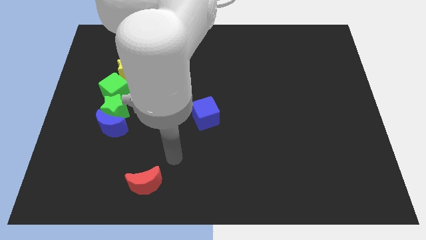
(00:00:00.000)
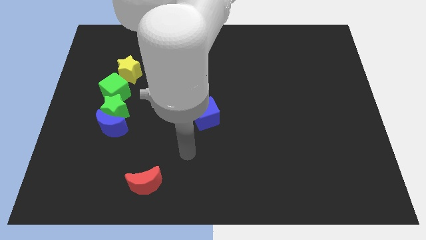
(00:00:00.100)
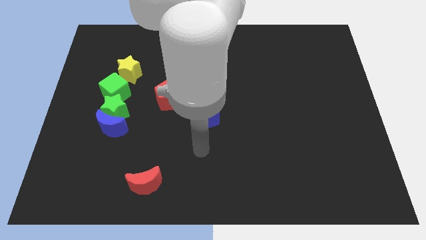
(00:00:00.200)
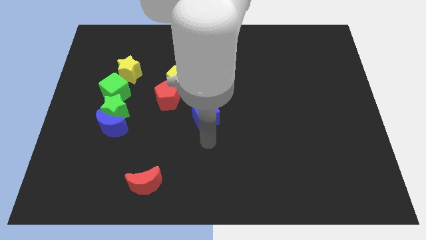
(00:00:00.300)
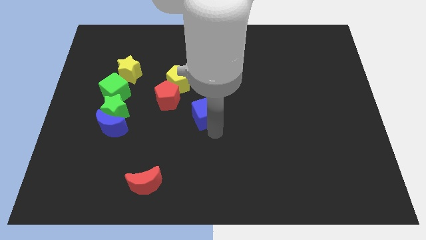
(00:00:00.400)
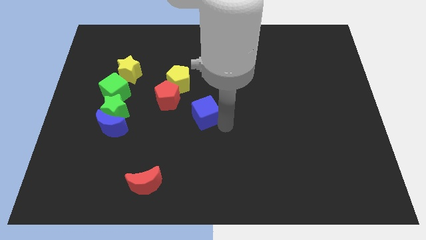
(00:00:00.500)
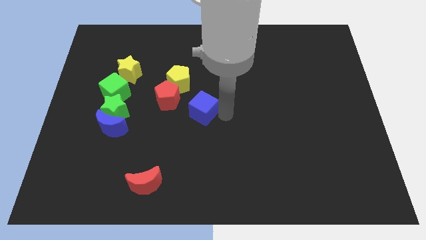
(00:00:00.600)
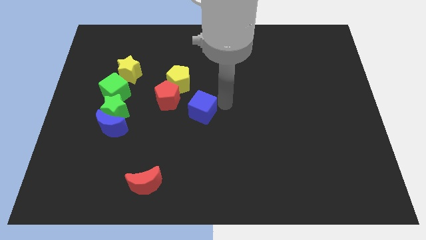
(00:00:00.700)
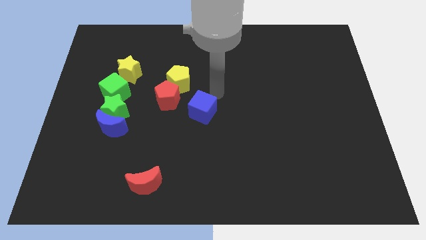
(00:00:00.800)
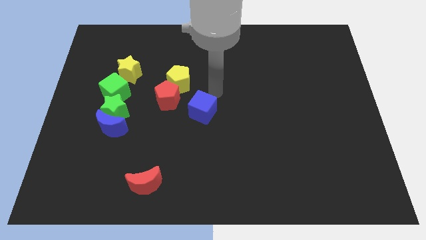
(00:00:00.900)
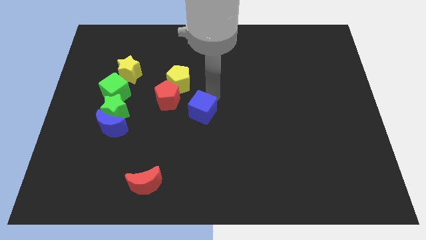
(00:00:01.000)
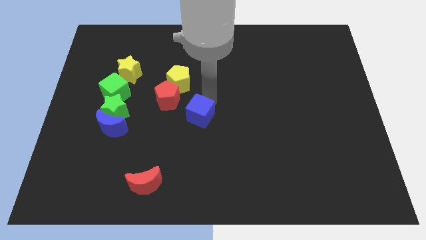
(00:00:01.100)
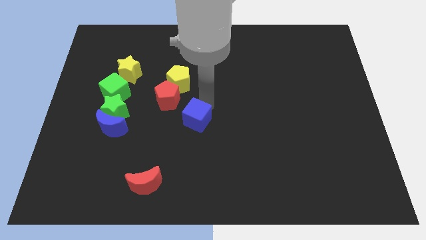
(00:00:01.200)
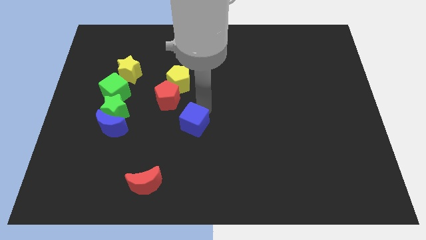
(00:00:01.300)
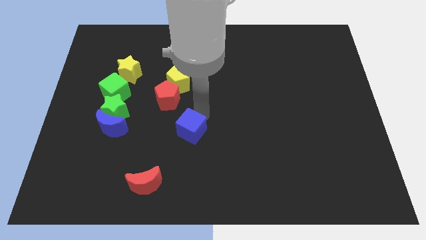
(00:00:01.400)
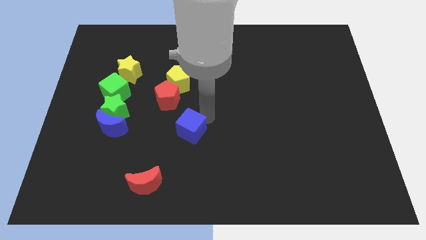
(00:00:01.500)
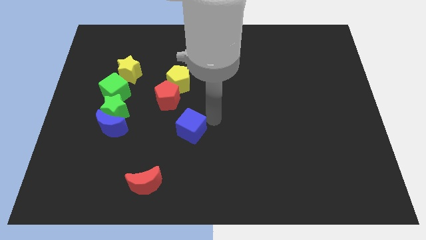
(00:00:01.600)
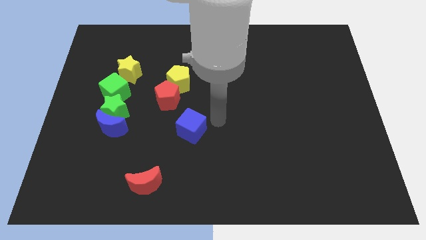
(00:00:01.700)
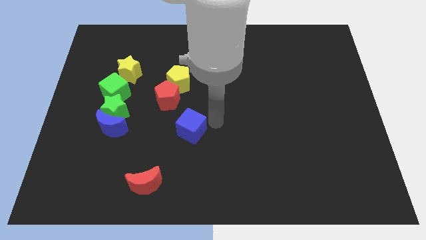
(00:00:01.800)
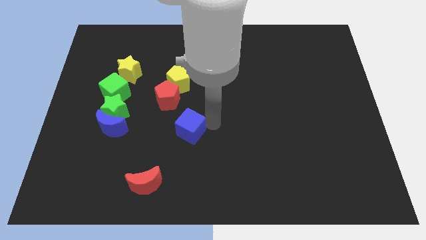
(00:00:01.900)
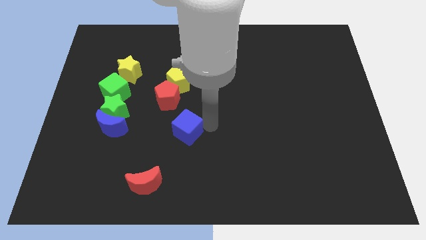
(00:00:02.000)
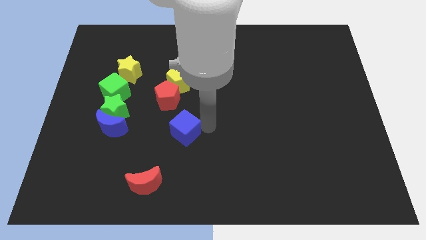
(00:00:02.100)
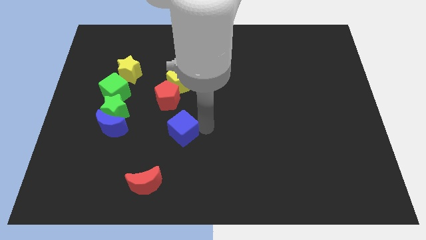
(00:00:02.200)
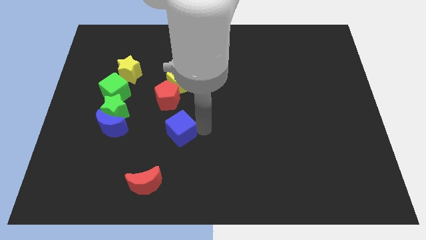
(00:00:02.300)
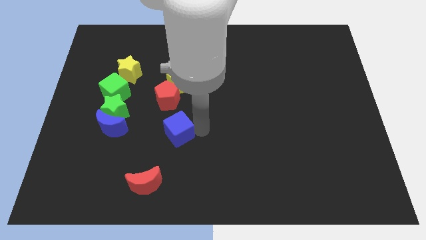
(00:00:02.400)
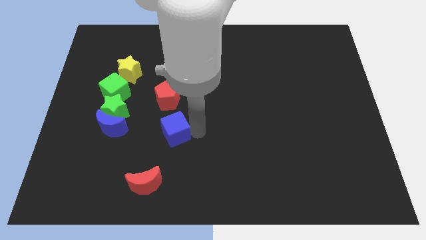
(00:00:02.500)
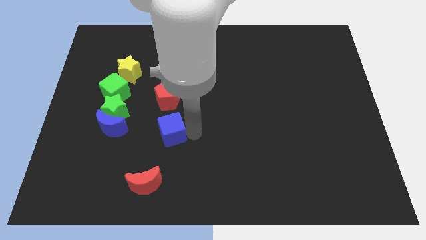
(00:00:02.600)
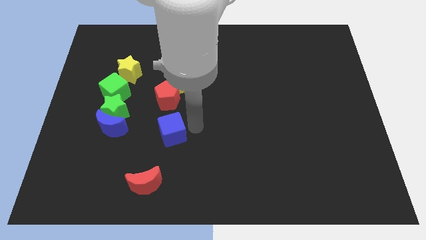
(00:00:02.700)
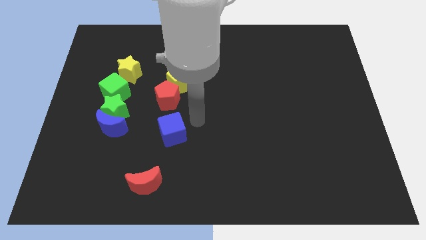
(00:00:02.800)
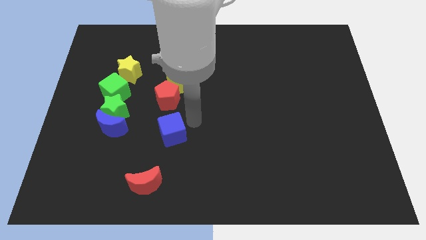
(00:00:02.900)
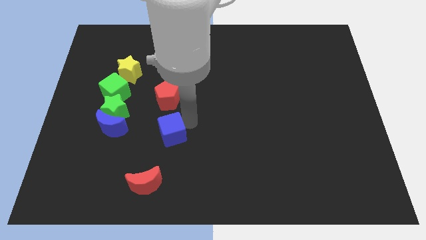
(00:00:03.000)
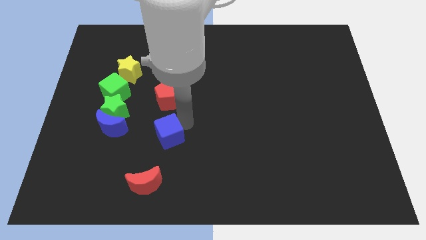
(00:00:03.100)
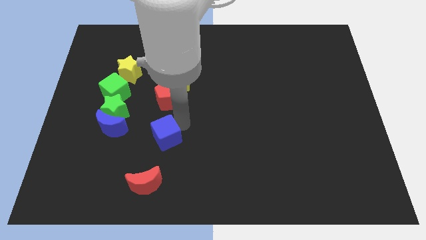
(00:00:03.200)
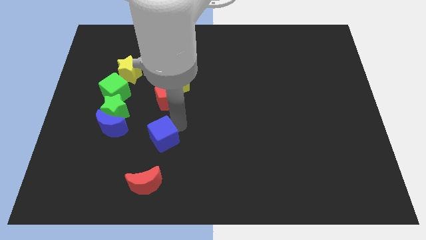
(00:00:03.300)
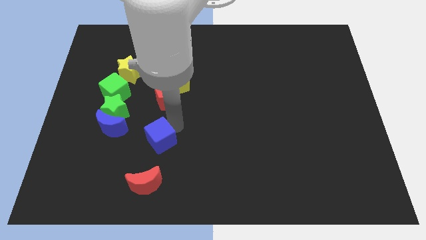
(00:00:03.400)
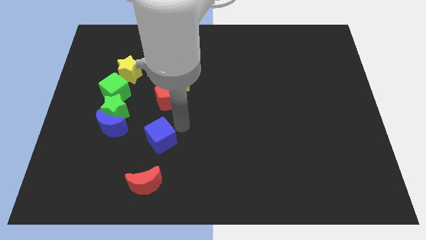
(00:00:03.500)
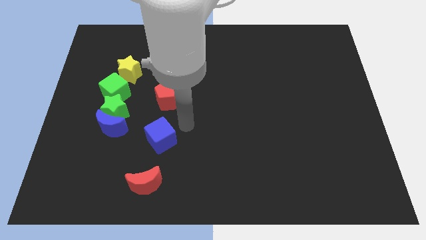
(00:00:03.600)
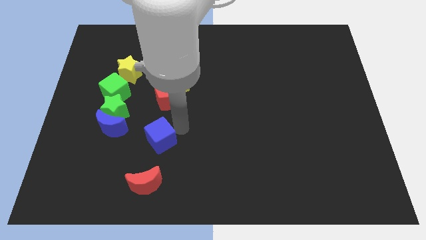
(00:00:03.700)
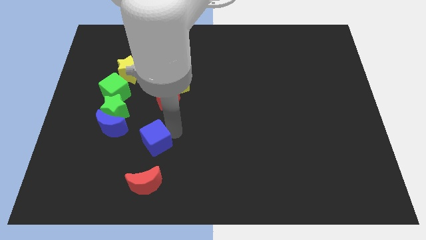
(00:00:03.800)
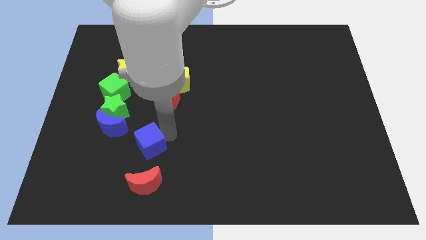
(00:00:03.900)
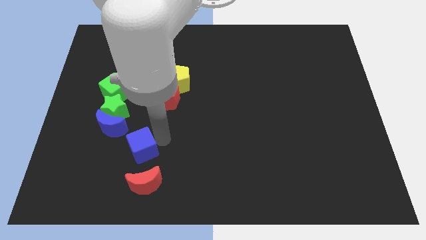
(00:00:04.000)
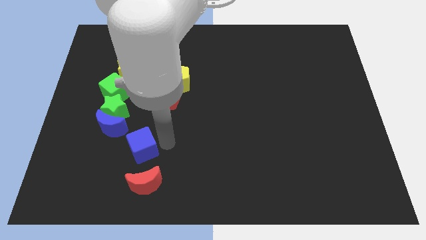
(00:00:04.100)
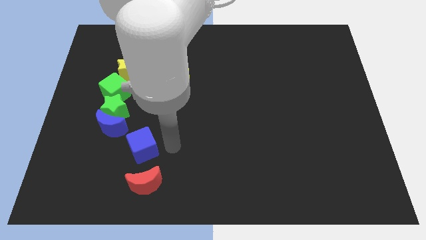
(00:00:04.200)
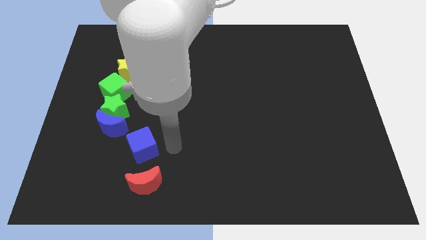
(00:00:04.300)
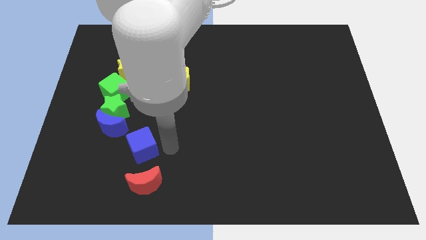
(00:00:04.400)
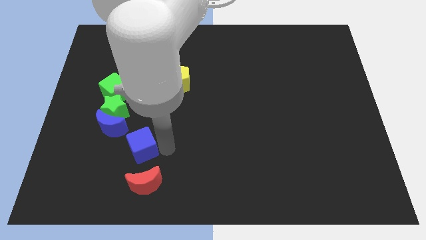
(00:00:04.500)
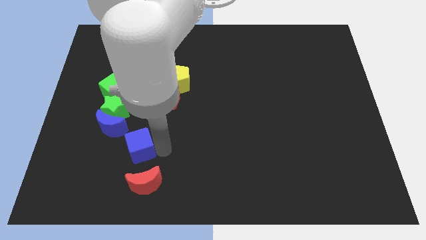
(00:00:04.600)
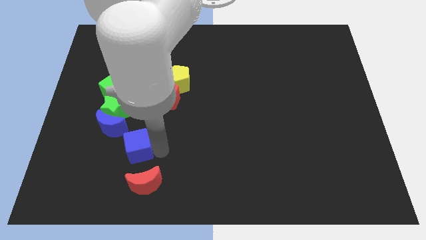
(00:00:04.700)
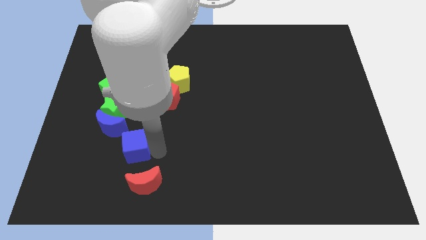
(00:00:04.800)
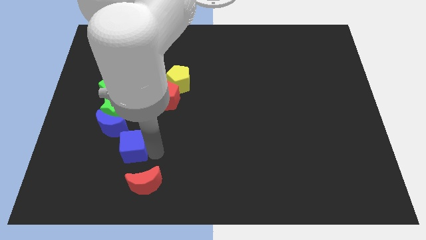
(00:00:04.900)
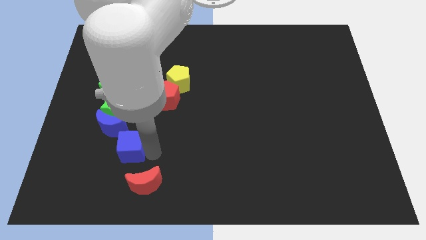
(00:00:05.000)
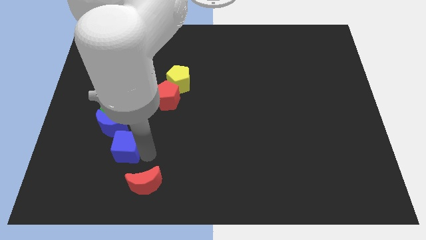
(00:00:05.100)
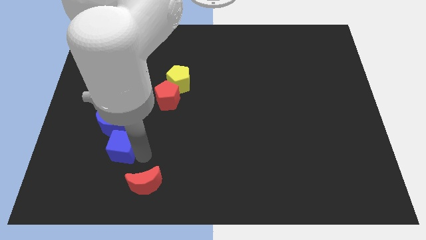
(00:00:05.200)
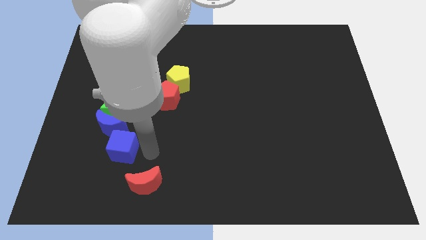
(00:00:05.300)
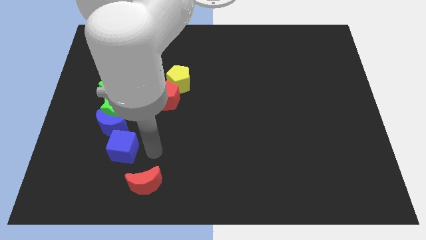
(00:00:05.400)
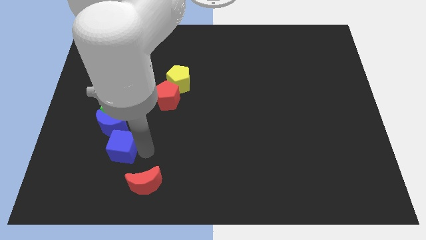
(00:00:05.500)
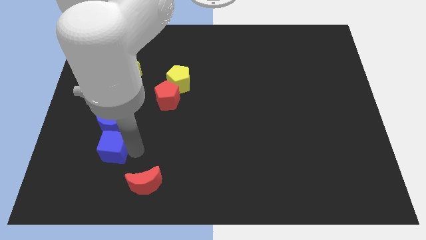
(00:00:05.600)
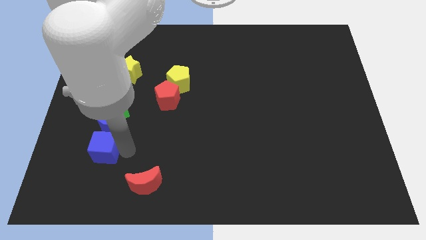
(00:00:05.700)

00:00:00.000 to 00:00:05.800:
move the blue cube to the bottom left side of the blue moon
